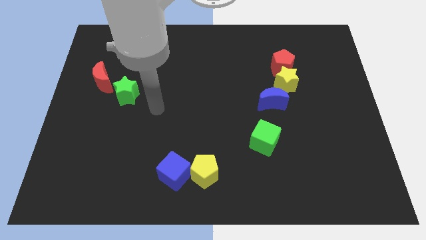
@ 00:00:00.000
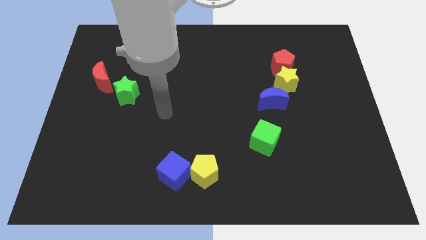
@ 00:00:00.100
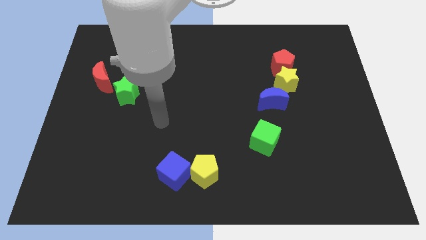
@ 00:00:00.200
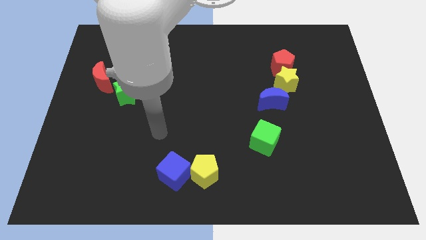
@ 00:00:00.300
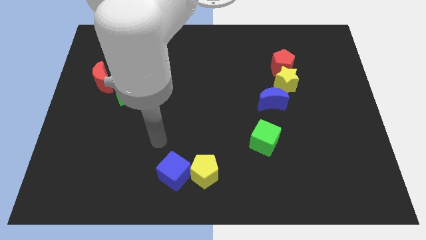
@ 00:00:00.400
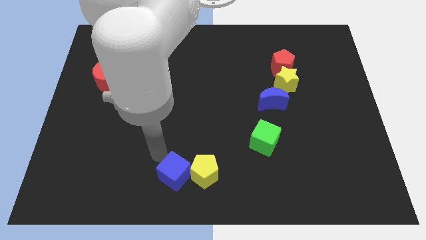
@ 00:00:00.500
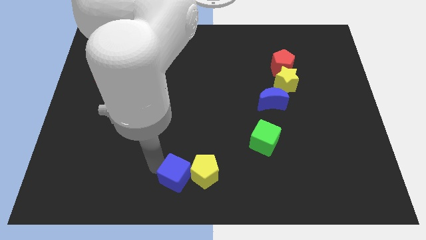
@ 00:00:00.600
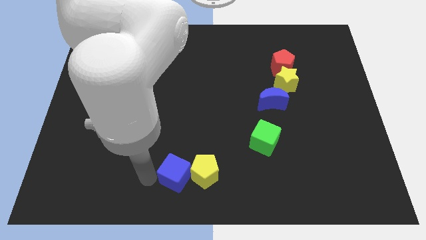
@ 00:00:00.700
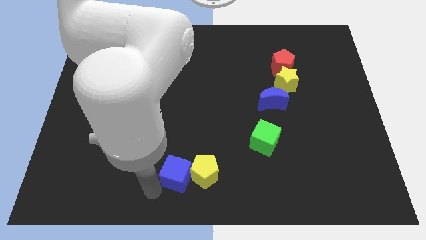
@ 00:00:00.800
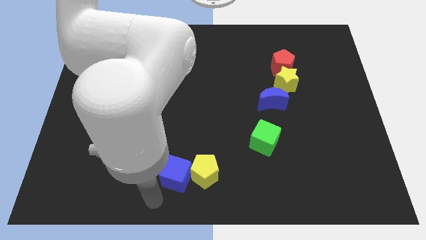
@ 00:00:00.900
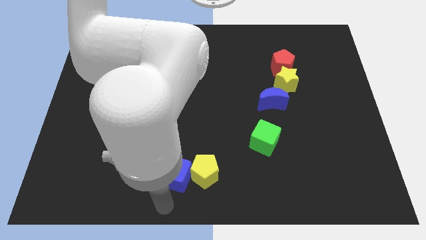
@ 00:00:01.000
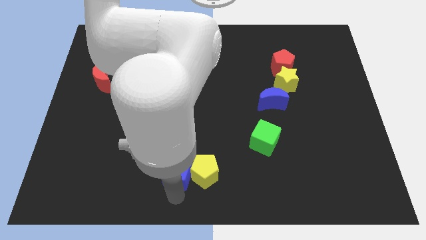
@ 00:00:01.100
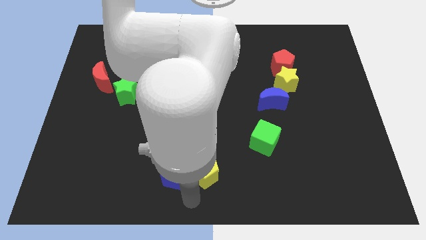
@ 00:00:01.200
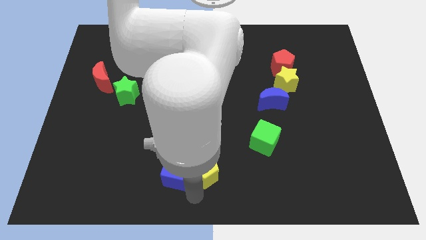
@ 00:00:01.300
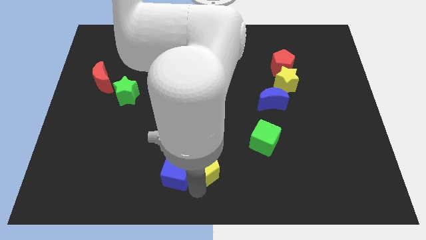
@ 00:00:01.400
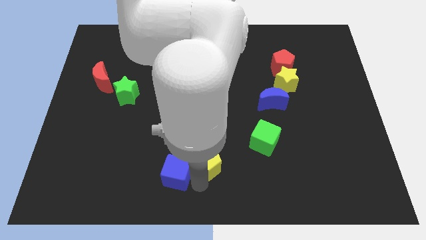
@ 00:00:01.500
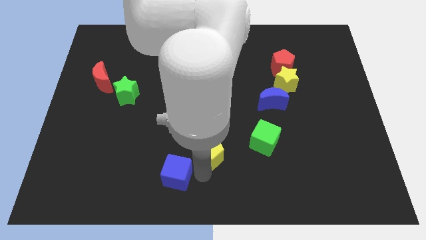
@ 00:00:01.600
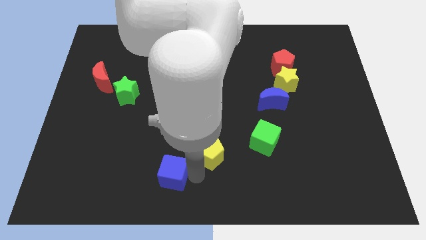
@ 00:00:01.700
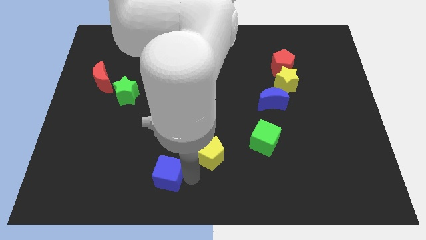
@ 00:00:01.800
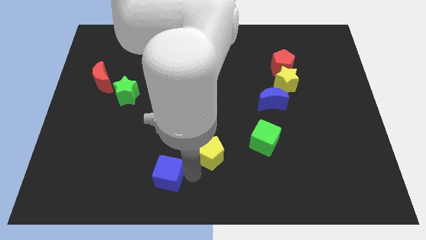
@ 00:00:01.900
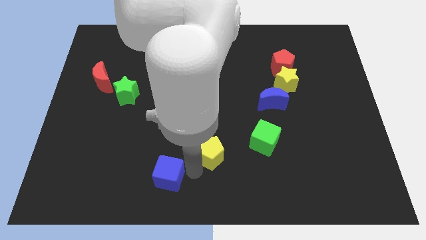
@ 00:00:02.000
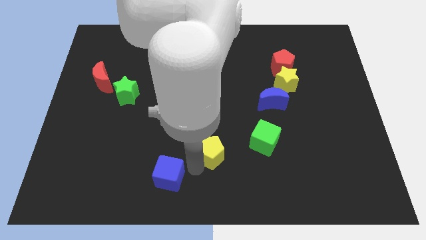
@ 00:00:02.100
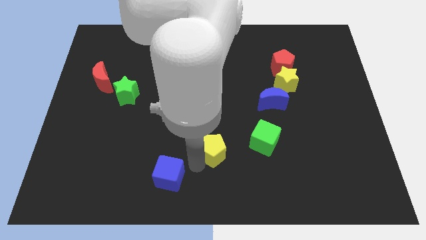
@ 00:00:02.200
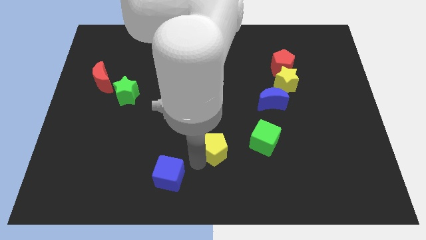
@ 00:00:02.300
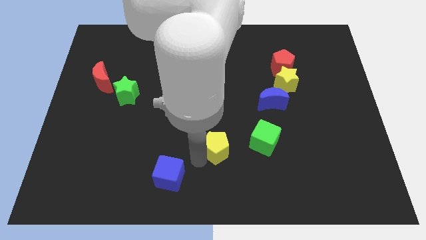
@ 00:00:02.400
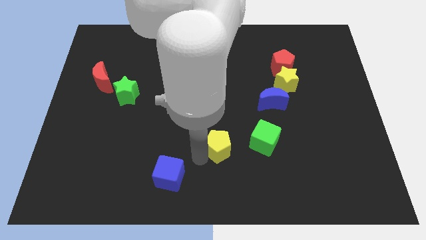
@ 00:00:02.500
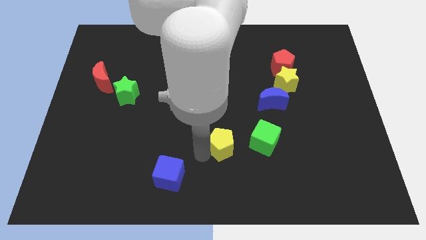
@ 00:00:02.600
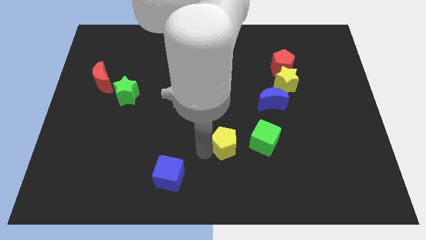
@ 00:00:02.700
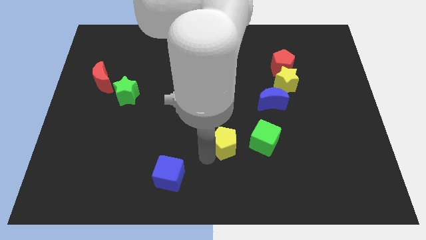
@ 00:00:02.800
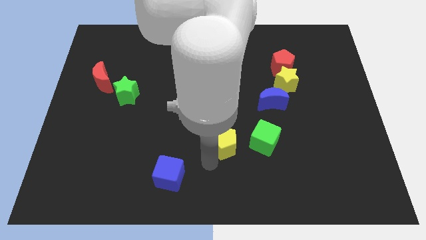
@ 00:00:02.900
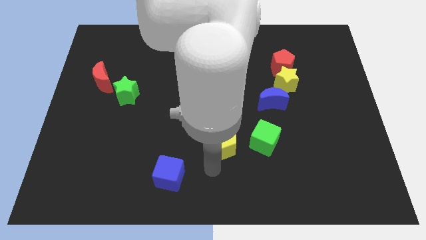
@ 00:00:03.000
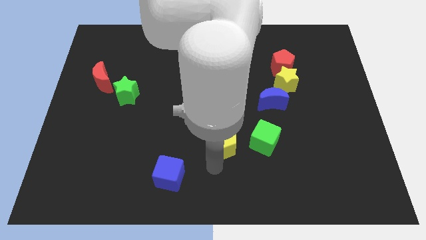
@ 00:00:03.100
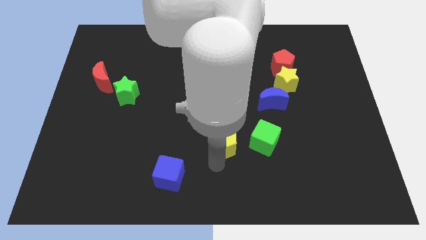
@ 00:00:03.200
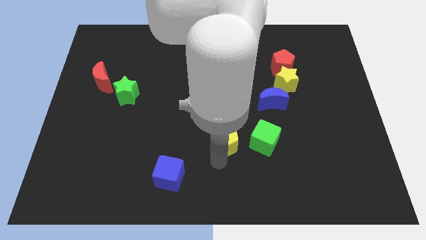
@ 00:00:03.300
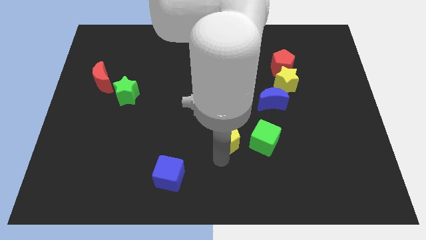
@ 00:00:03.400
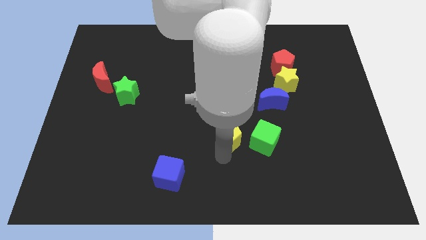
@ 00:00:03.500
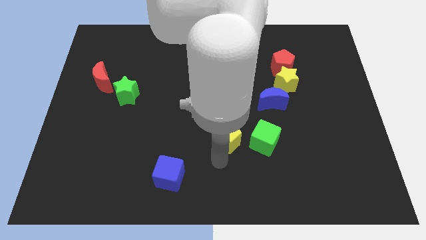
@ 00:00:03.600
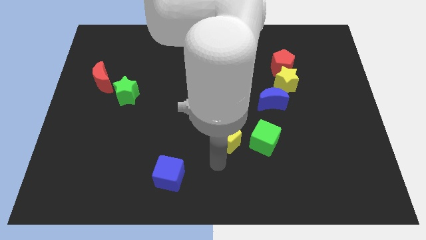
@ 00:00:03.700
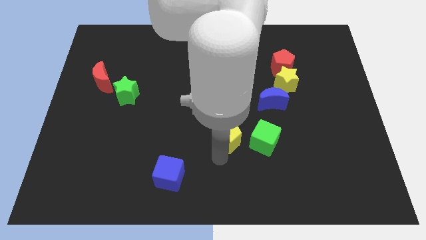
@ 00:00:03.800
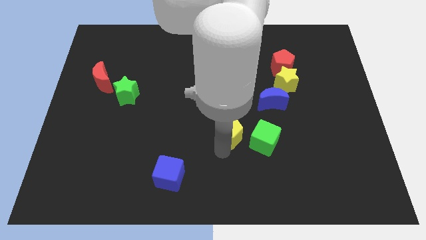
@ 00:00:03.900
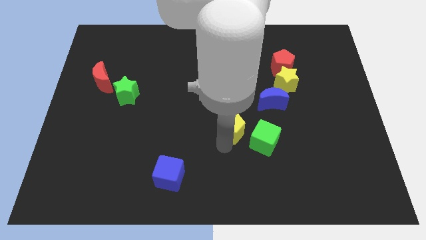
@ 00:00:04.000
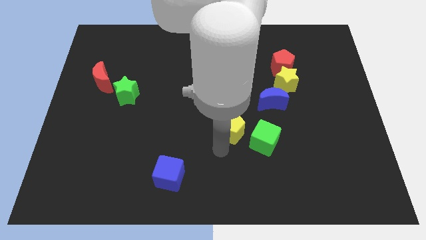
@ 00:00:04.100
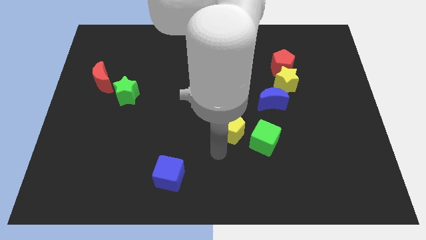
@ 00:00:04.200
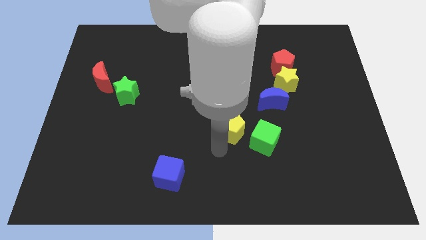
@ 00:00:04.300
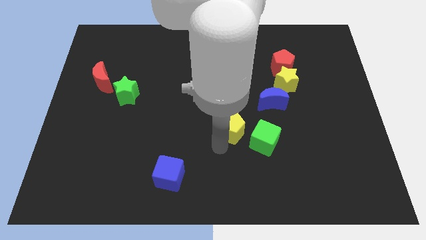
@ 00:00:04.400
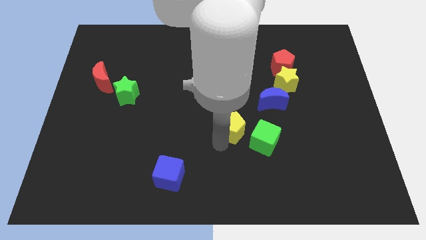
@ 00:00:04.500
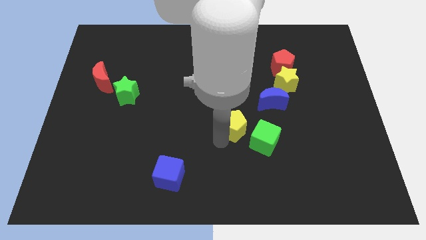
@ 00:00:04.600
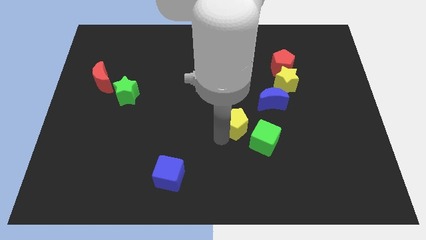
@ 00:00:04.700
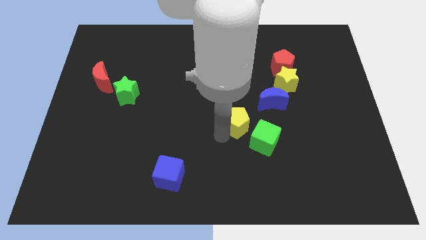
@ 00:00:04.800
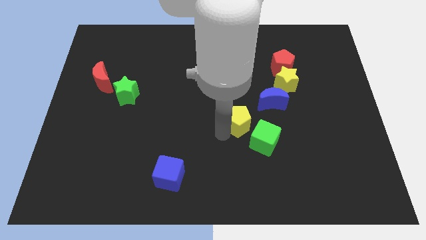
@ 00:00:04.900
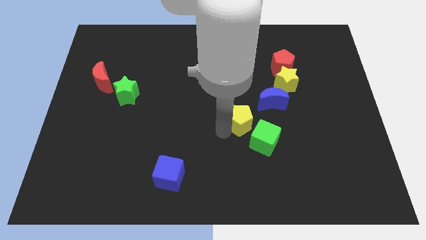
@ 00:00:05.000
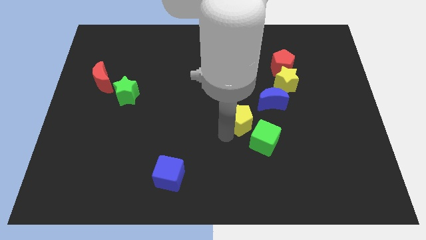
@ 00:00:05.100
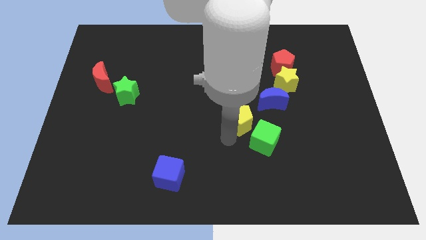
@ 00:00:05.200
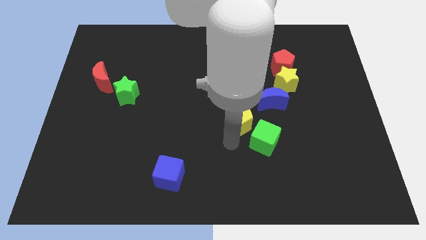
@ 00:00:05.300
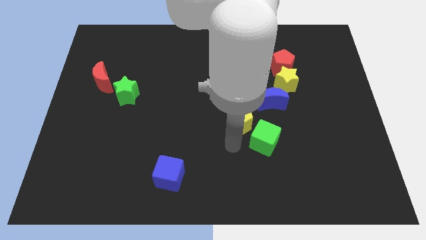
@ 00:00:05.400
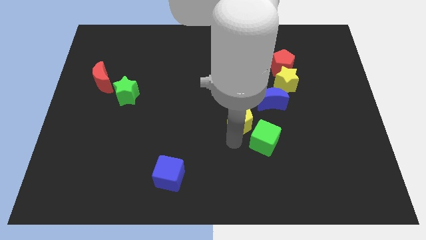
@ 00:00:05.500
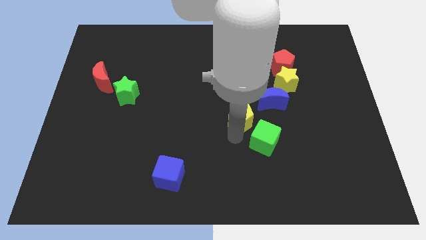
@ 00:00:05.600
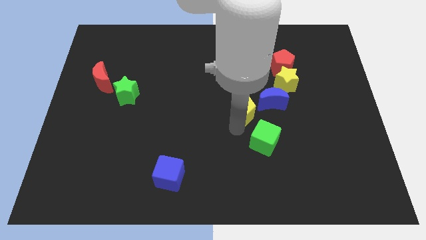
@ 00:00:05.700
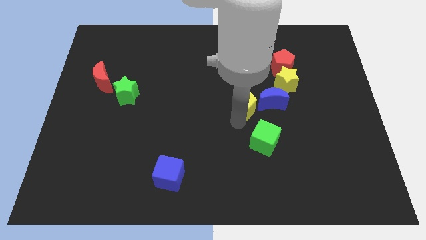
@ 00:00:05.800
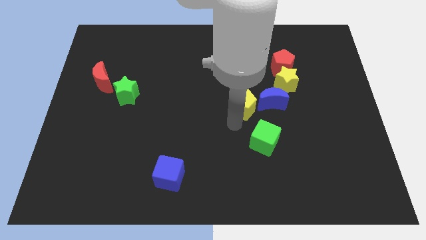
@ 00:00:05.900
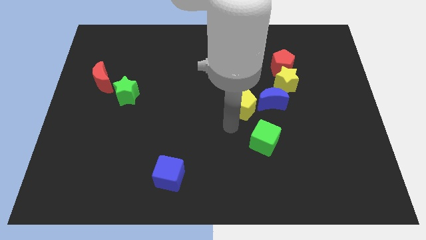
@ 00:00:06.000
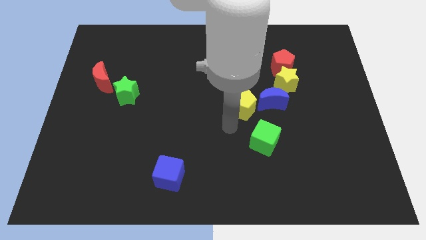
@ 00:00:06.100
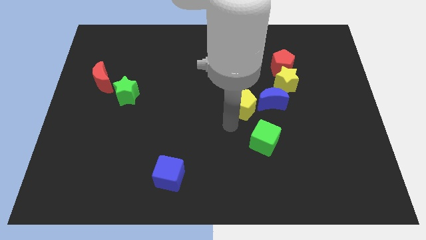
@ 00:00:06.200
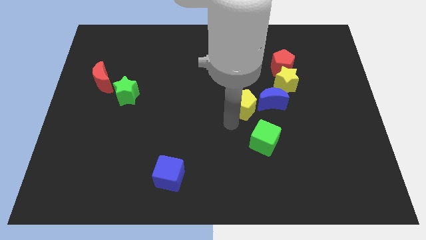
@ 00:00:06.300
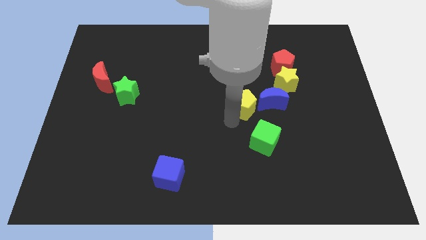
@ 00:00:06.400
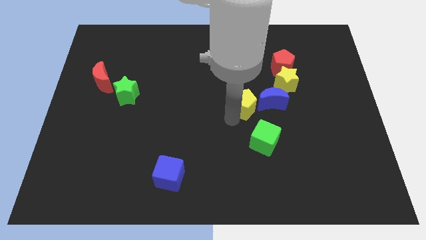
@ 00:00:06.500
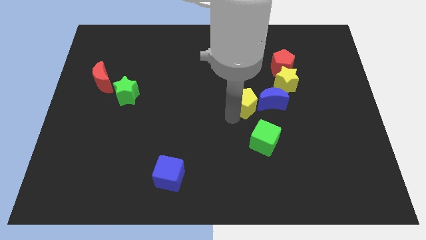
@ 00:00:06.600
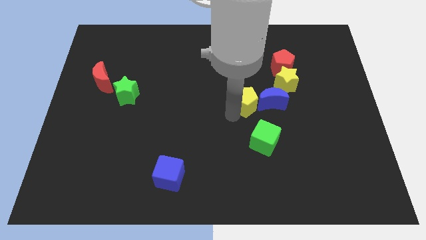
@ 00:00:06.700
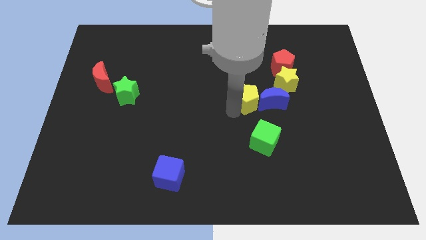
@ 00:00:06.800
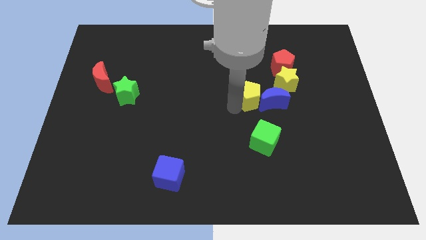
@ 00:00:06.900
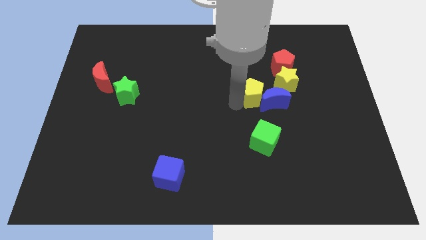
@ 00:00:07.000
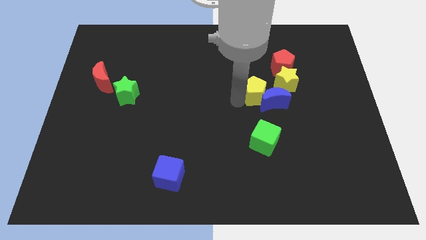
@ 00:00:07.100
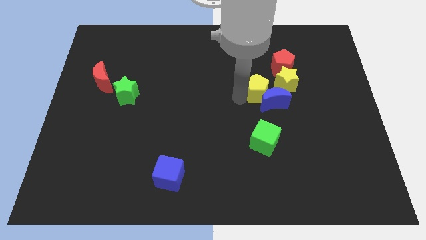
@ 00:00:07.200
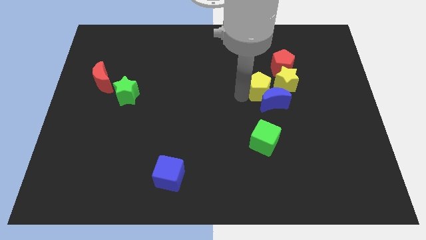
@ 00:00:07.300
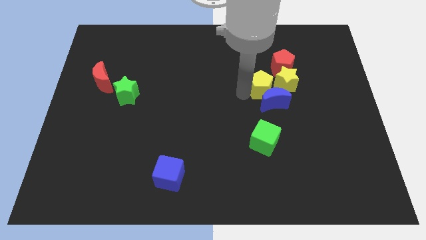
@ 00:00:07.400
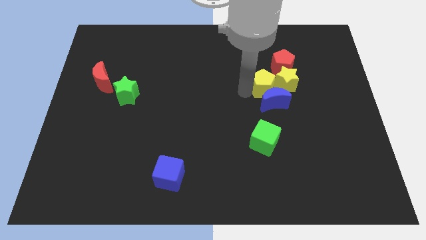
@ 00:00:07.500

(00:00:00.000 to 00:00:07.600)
push the yellow pentagon next to the yellow star
